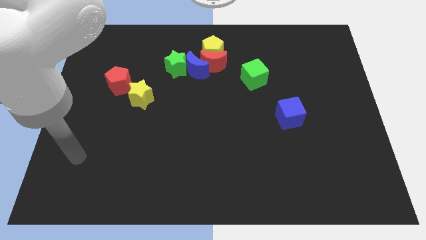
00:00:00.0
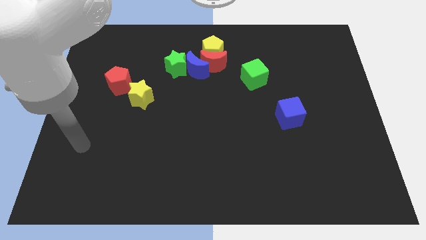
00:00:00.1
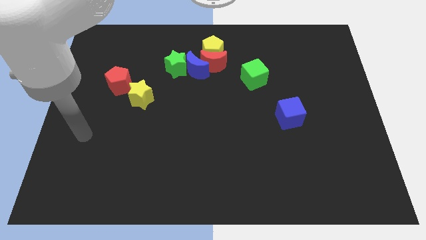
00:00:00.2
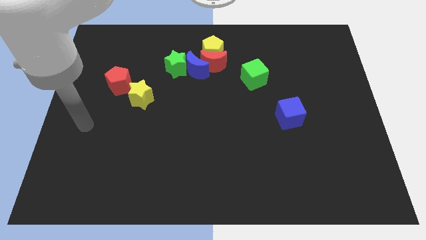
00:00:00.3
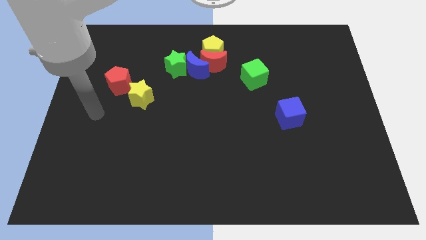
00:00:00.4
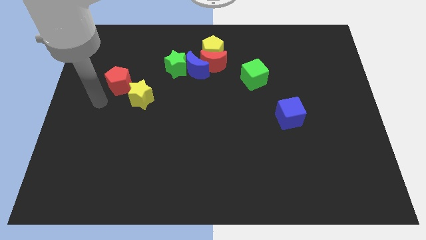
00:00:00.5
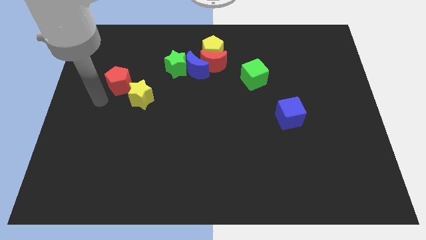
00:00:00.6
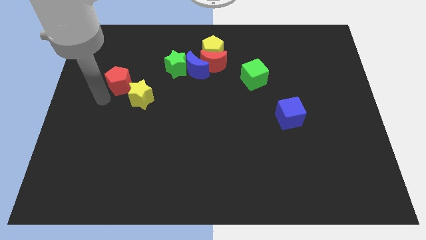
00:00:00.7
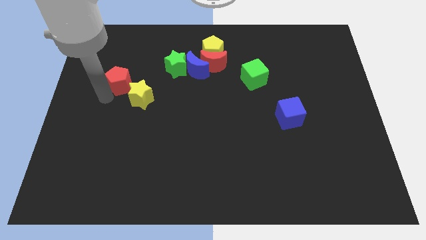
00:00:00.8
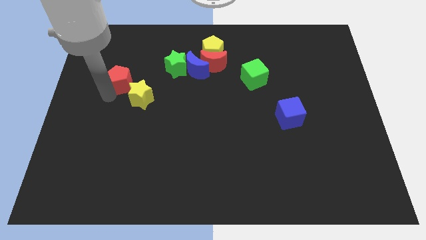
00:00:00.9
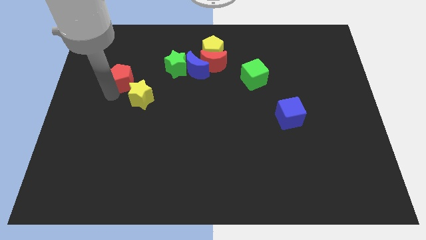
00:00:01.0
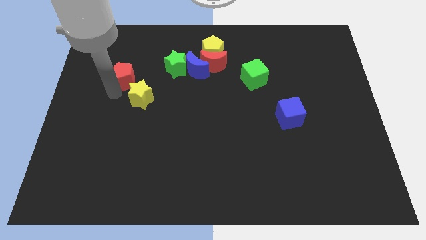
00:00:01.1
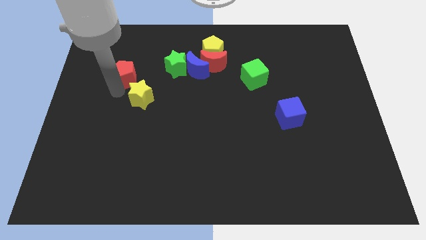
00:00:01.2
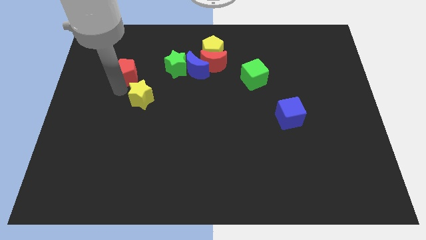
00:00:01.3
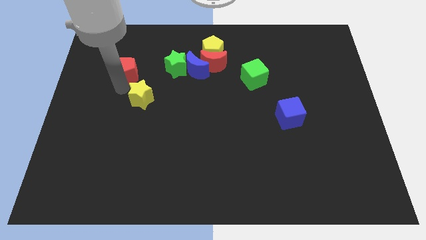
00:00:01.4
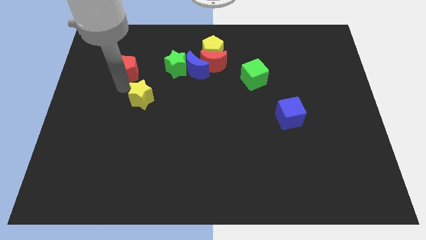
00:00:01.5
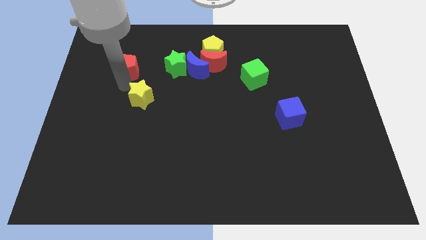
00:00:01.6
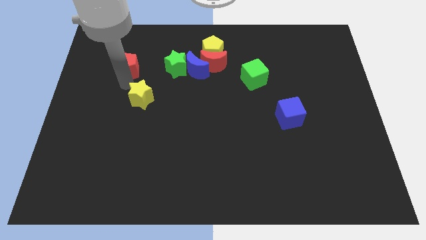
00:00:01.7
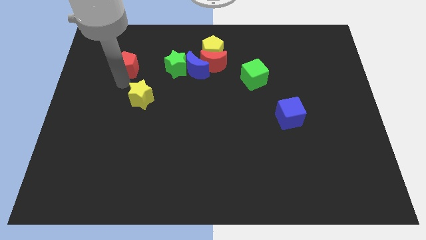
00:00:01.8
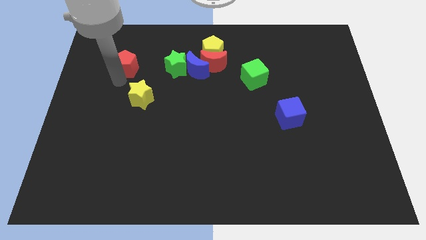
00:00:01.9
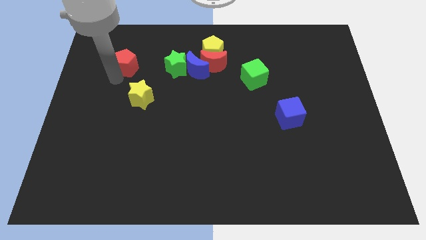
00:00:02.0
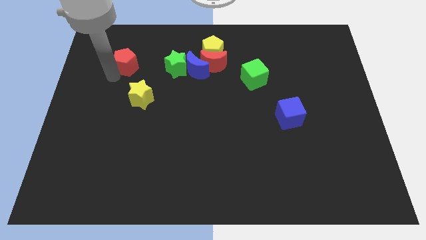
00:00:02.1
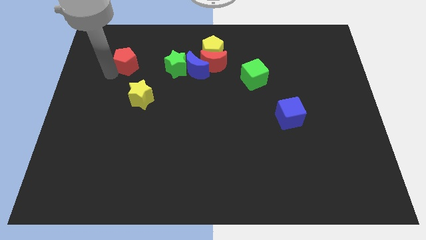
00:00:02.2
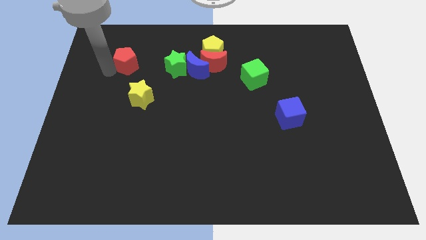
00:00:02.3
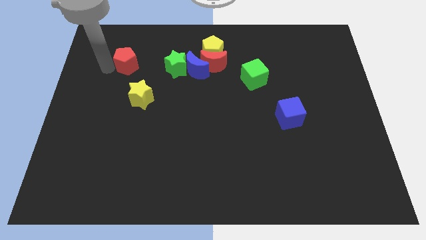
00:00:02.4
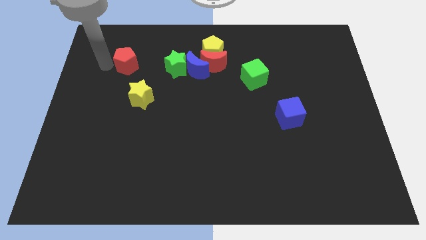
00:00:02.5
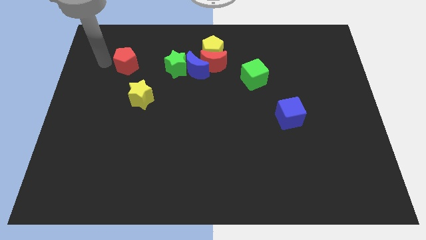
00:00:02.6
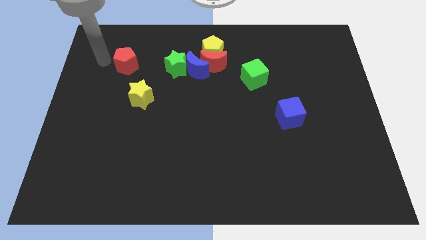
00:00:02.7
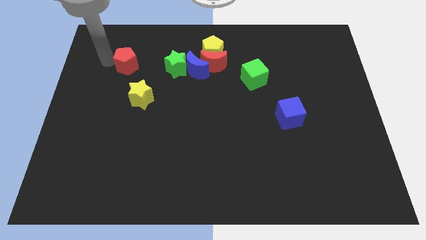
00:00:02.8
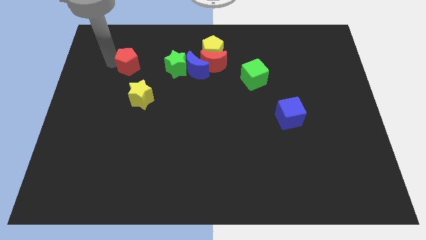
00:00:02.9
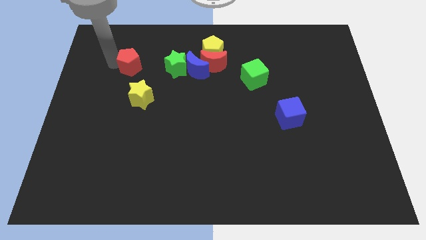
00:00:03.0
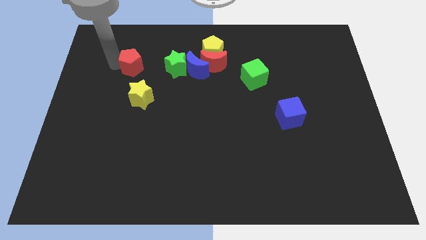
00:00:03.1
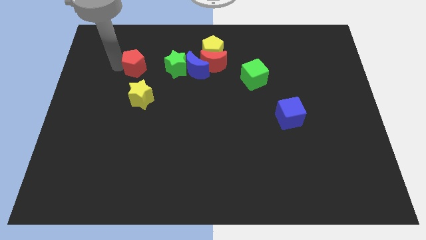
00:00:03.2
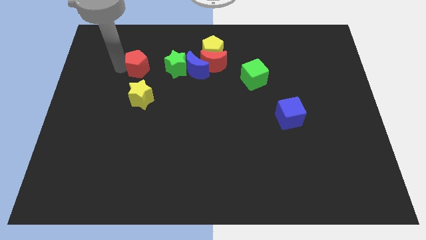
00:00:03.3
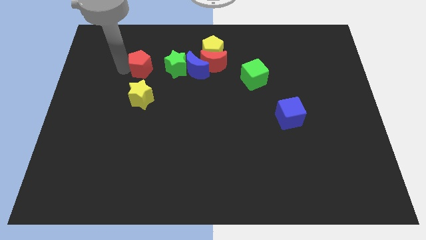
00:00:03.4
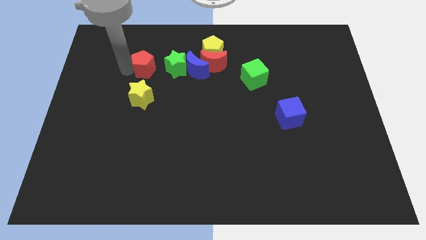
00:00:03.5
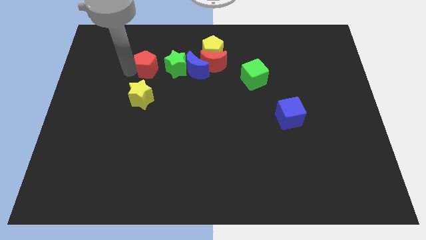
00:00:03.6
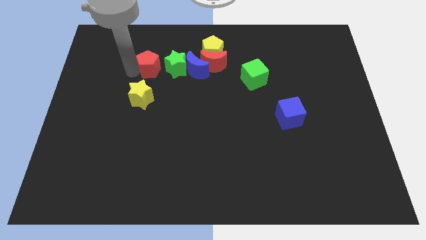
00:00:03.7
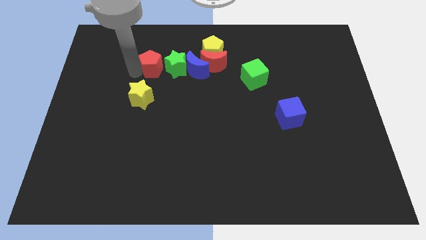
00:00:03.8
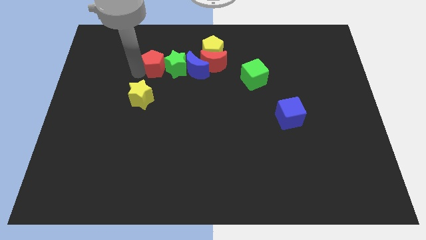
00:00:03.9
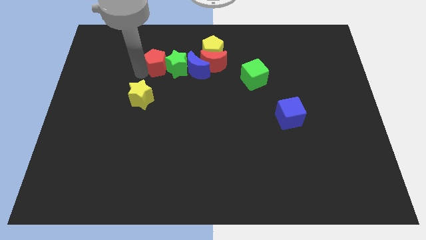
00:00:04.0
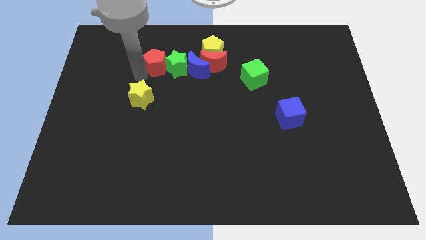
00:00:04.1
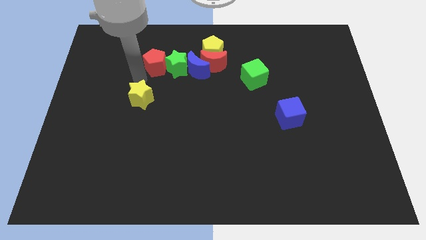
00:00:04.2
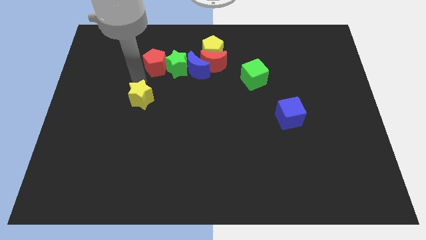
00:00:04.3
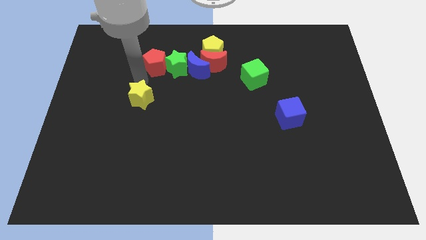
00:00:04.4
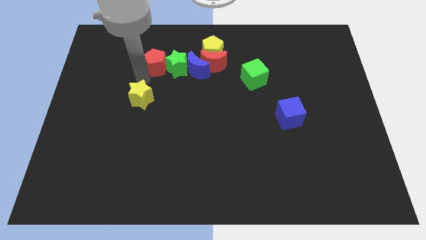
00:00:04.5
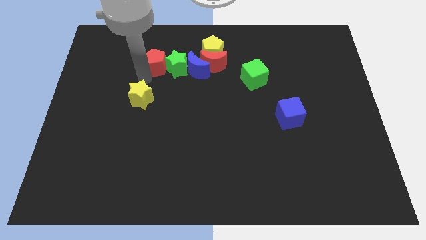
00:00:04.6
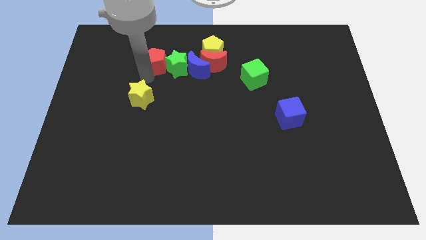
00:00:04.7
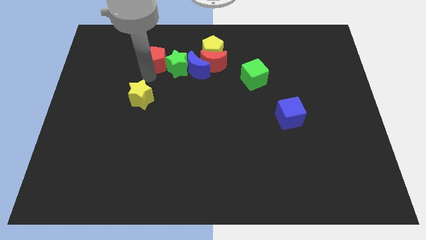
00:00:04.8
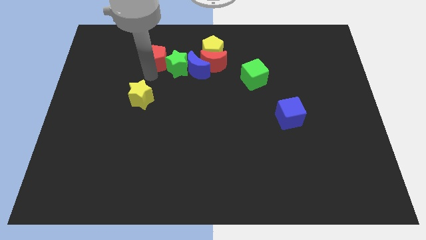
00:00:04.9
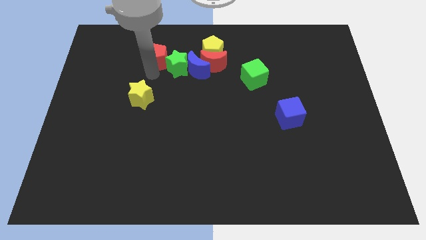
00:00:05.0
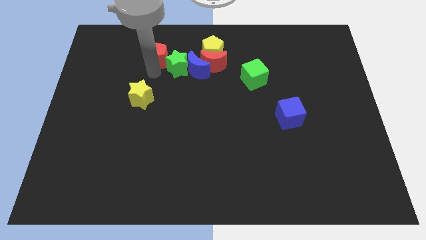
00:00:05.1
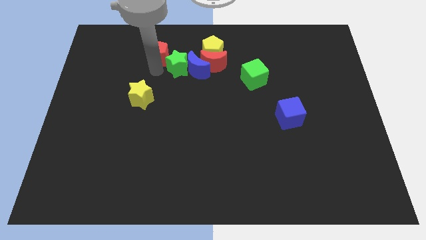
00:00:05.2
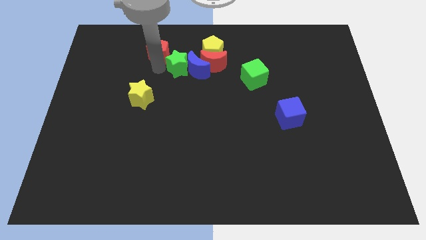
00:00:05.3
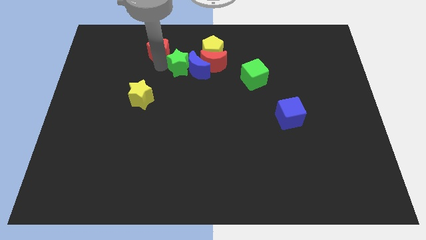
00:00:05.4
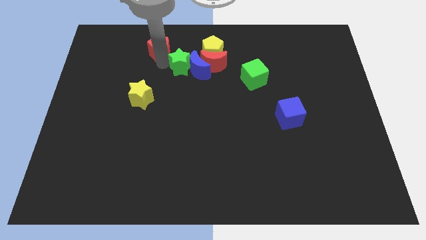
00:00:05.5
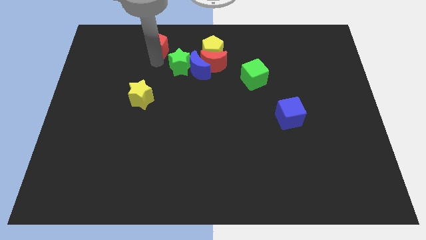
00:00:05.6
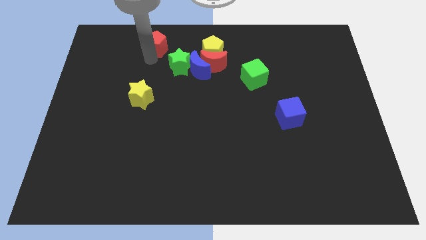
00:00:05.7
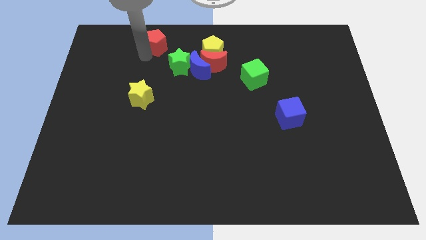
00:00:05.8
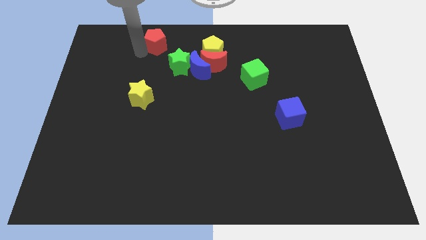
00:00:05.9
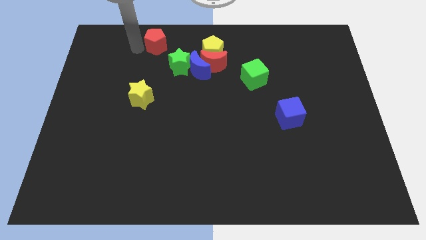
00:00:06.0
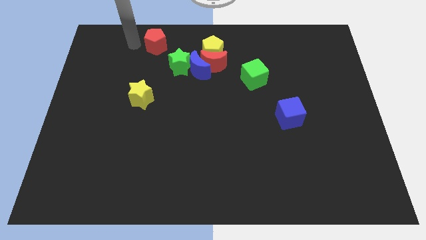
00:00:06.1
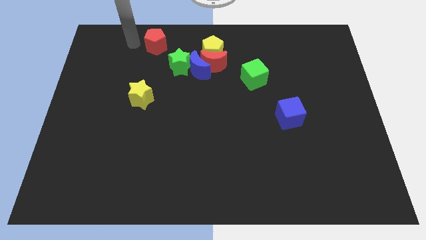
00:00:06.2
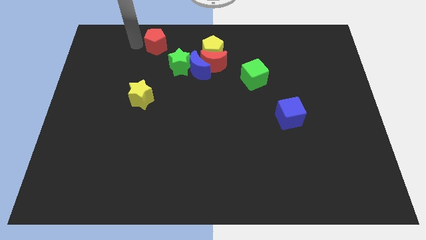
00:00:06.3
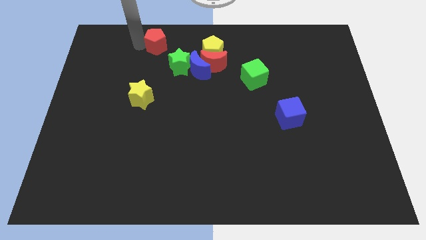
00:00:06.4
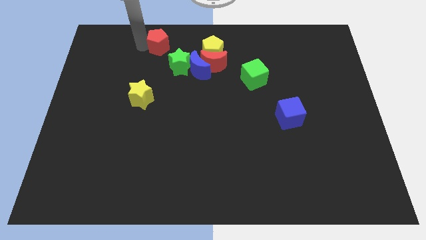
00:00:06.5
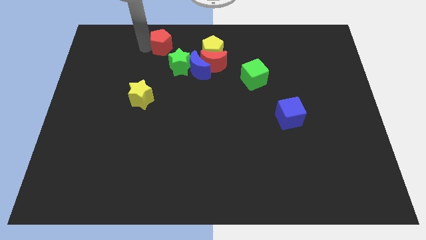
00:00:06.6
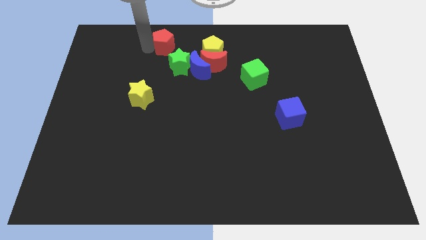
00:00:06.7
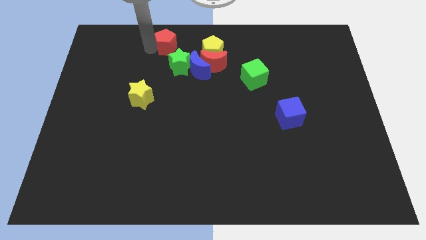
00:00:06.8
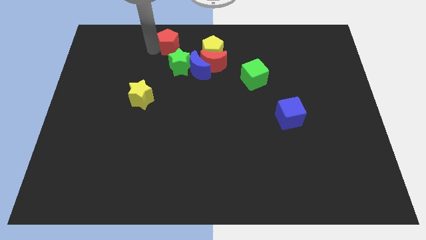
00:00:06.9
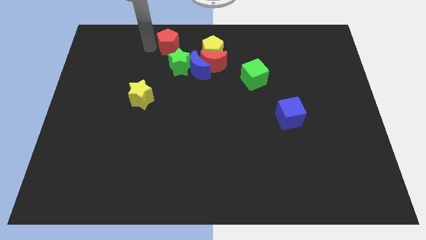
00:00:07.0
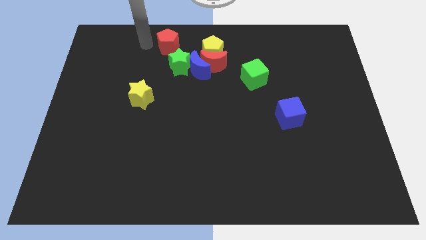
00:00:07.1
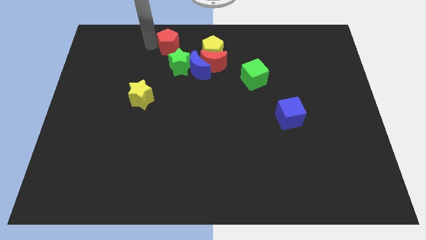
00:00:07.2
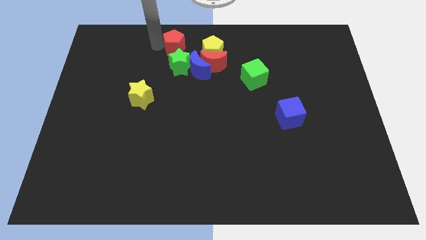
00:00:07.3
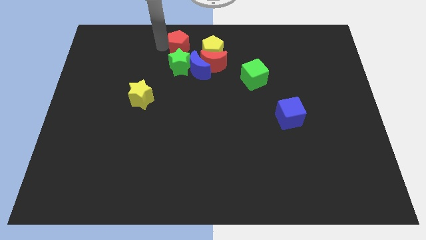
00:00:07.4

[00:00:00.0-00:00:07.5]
put the red pentagon to the top
